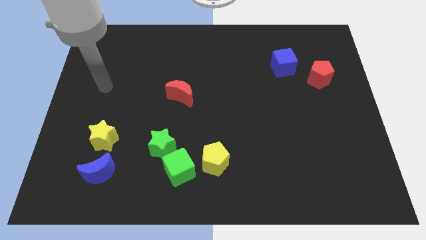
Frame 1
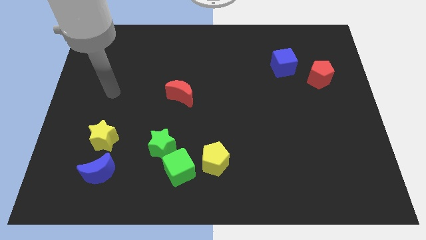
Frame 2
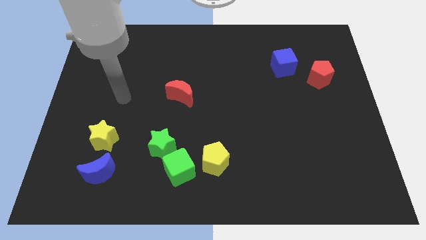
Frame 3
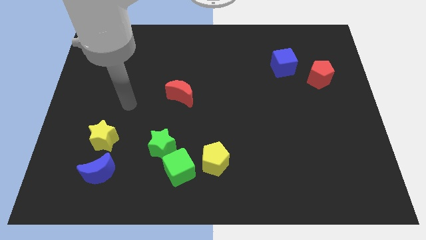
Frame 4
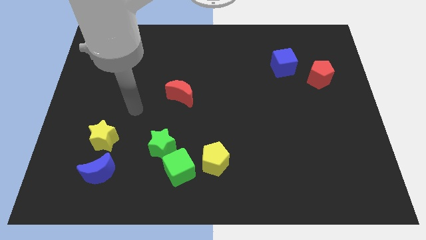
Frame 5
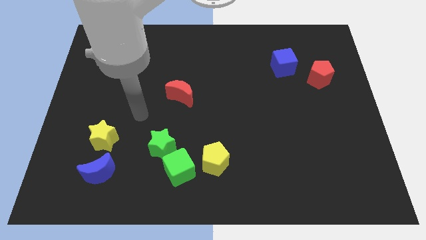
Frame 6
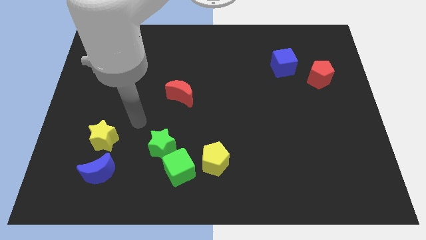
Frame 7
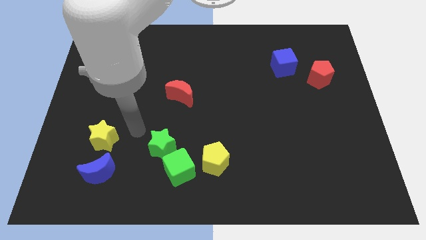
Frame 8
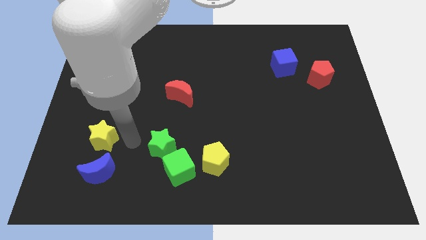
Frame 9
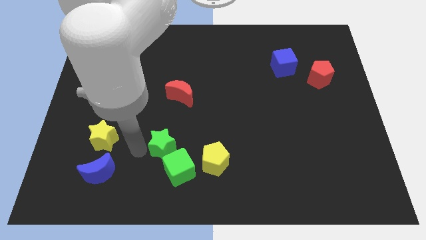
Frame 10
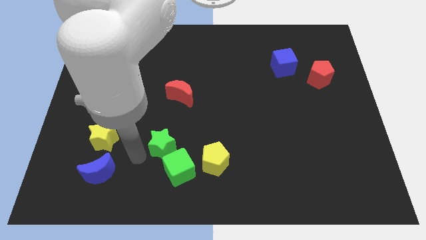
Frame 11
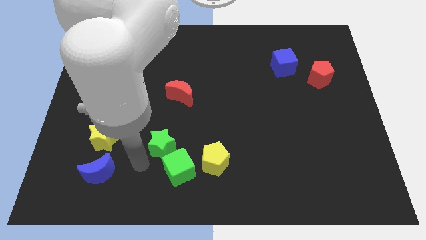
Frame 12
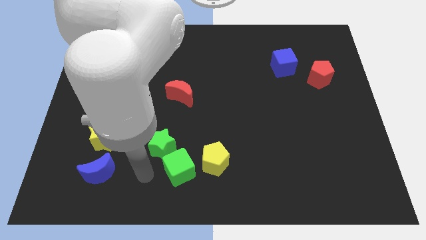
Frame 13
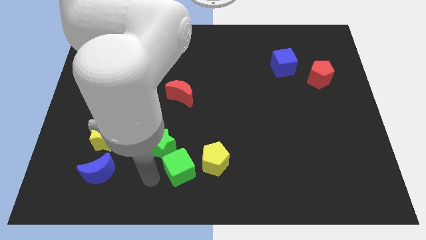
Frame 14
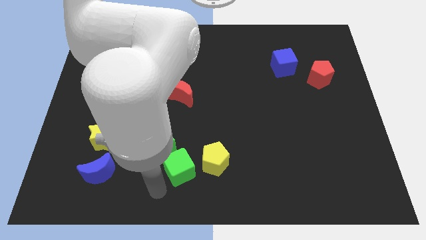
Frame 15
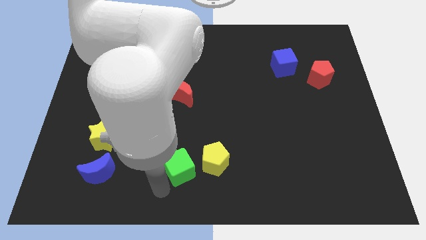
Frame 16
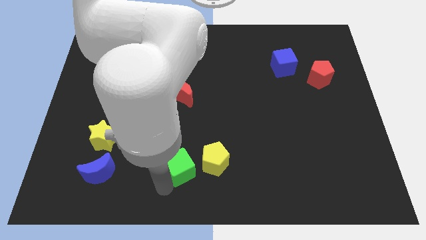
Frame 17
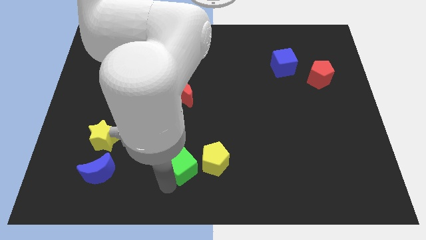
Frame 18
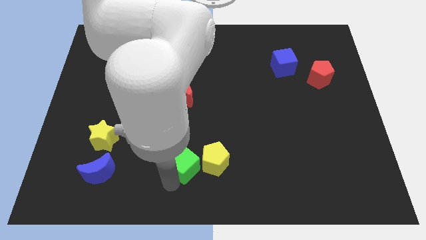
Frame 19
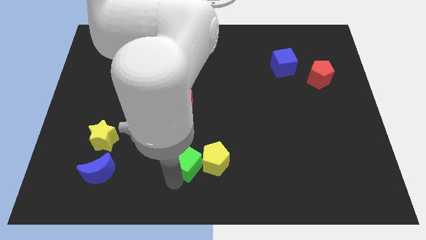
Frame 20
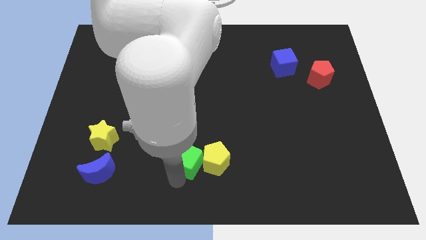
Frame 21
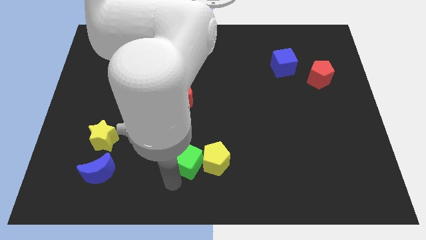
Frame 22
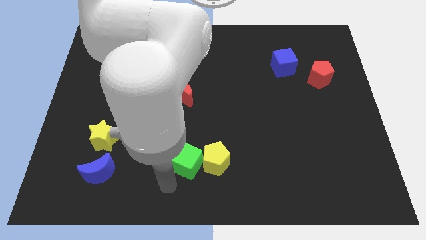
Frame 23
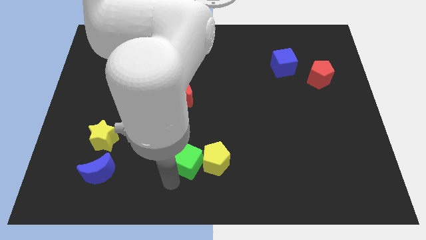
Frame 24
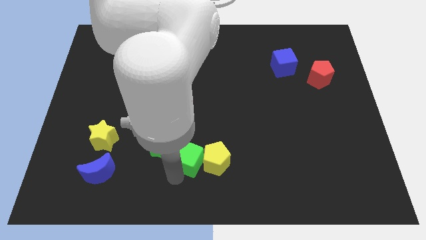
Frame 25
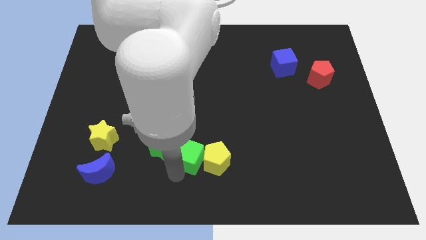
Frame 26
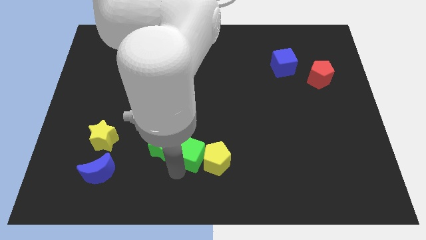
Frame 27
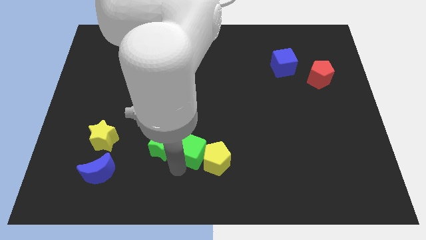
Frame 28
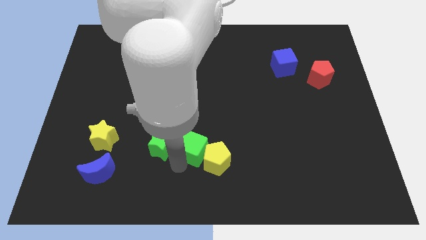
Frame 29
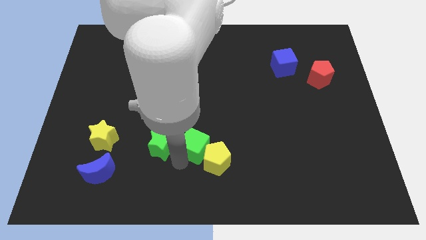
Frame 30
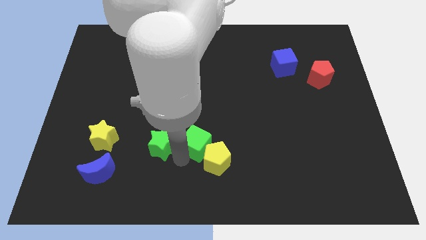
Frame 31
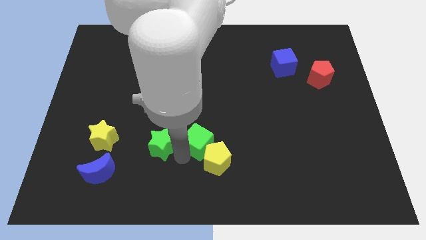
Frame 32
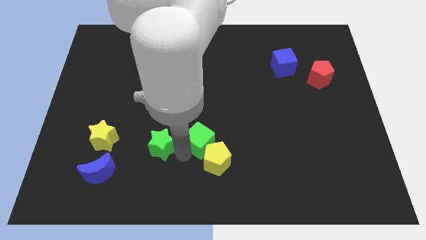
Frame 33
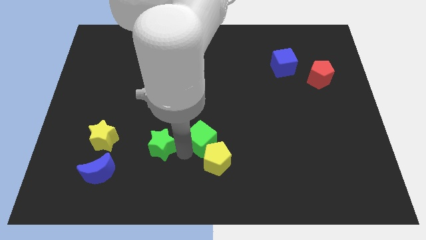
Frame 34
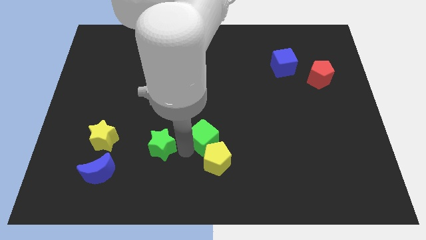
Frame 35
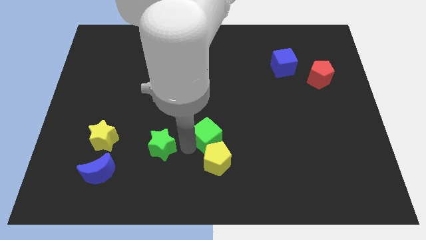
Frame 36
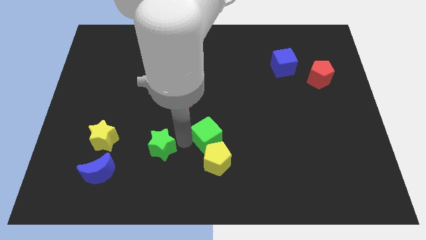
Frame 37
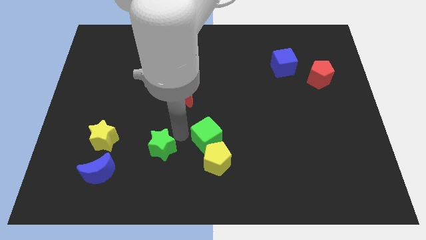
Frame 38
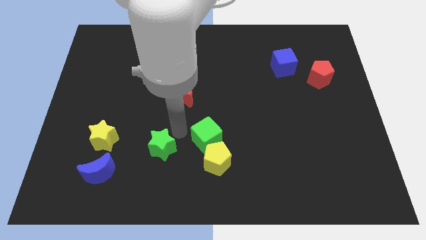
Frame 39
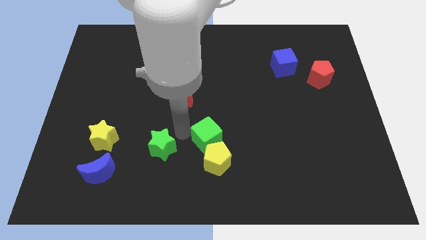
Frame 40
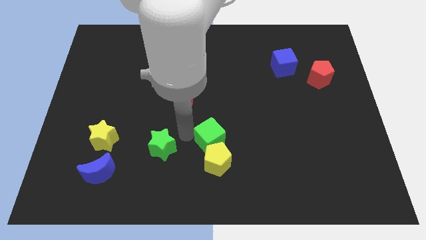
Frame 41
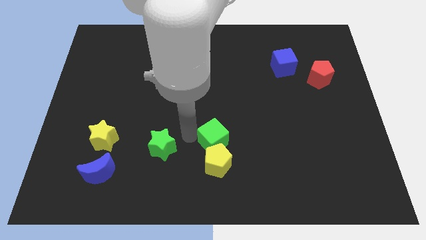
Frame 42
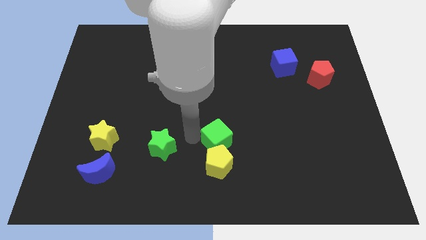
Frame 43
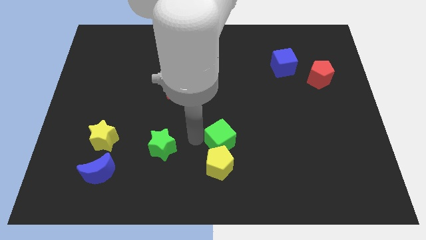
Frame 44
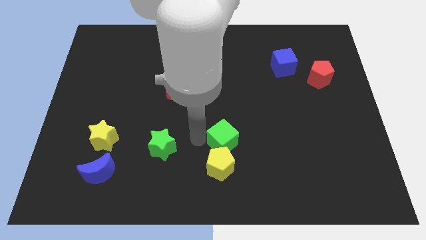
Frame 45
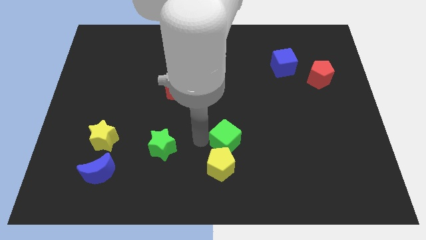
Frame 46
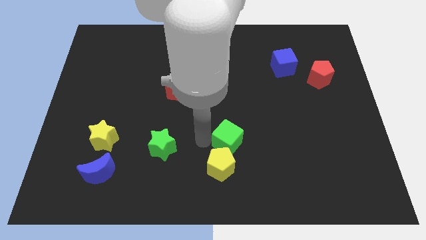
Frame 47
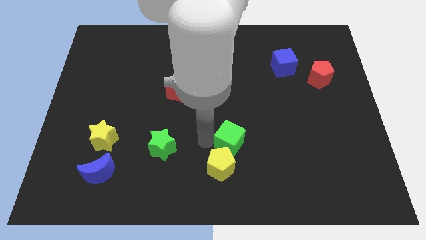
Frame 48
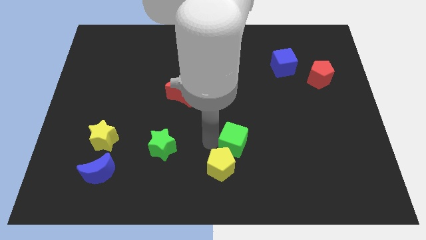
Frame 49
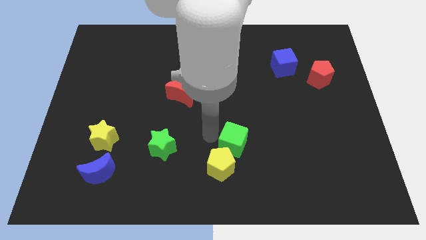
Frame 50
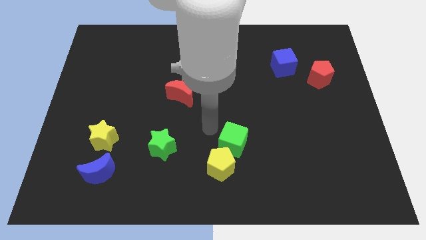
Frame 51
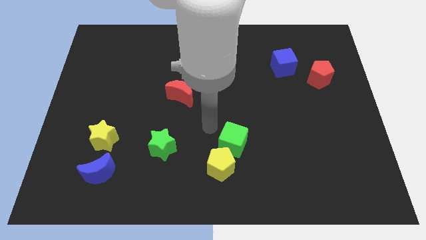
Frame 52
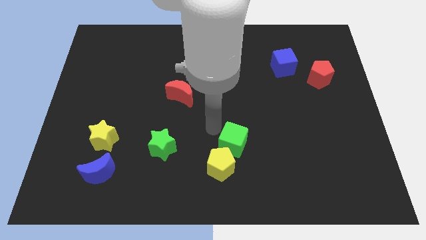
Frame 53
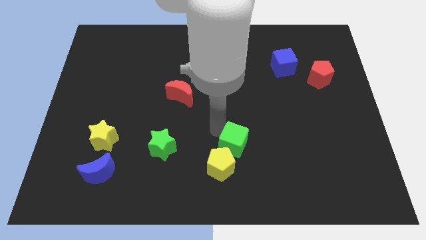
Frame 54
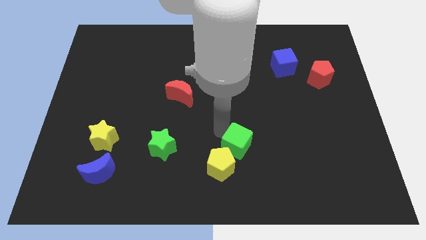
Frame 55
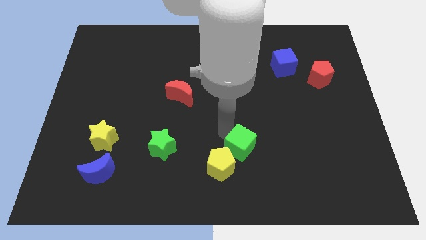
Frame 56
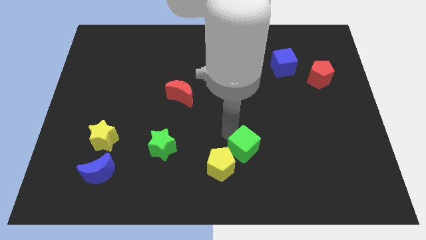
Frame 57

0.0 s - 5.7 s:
push the green cube just right of the yellow pentagon

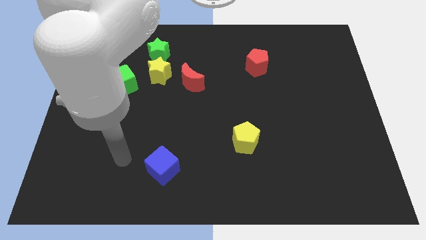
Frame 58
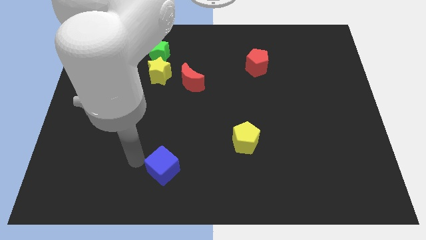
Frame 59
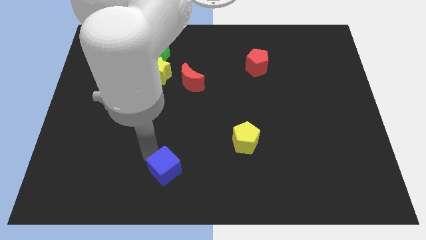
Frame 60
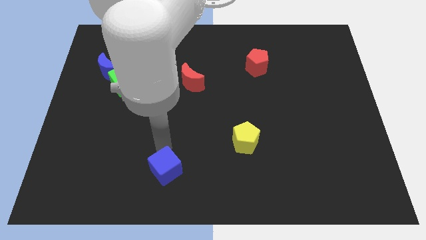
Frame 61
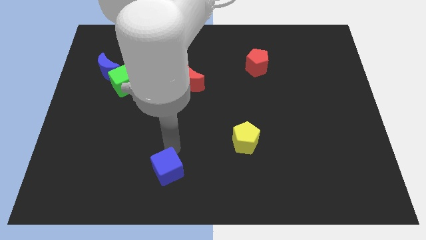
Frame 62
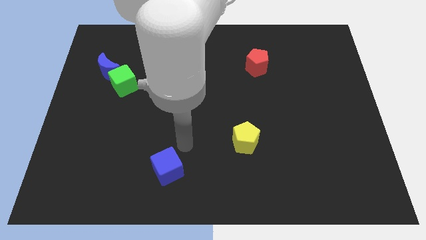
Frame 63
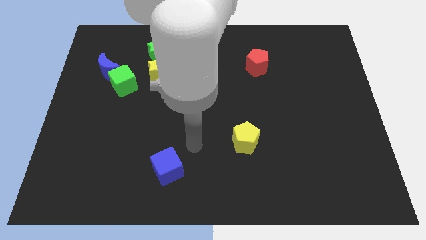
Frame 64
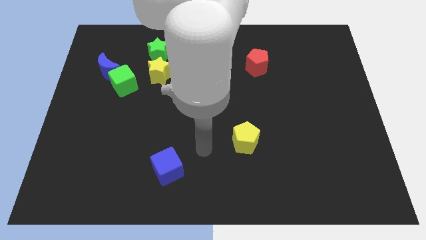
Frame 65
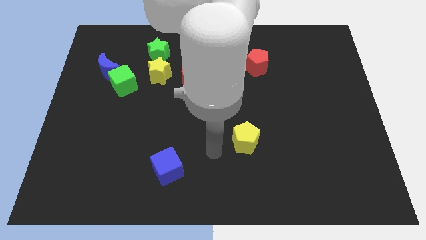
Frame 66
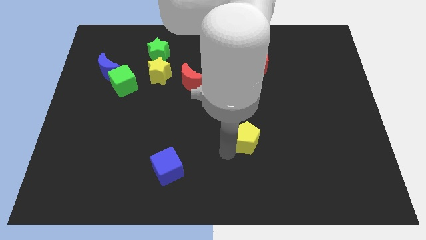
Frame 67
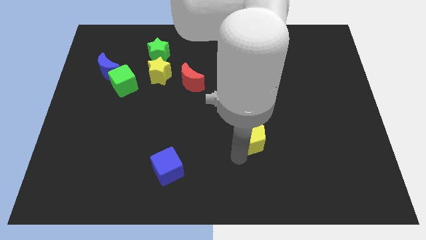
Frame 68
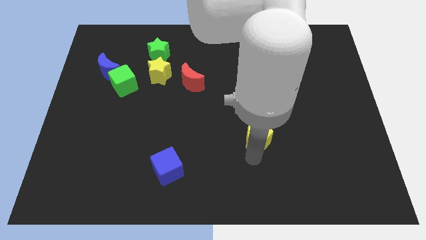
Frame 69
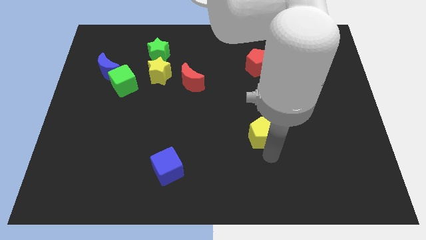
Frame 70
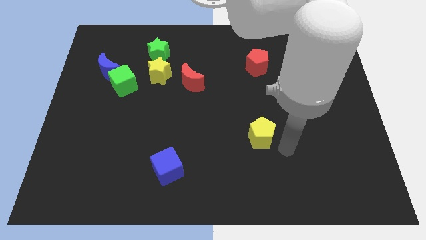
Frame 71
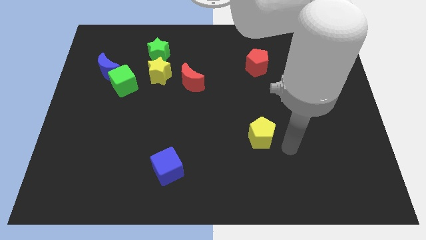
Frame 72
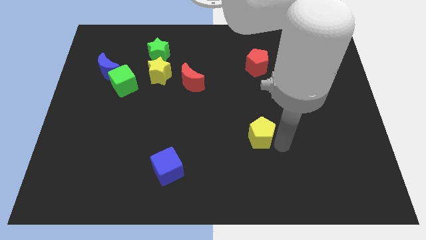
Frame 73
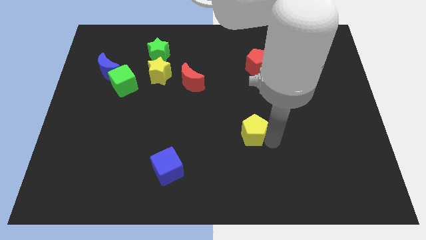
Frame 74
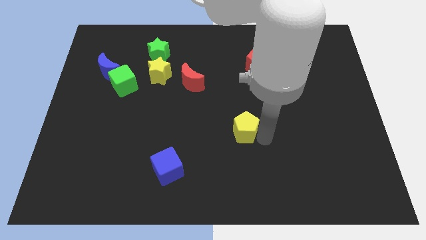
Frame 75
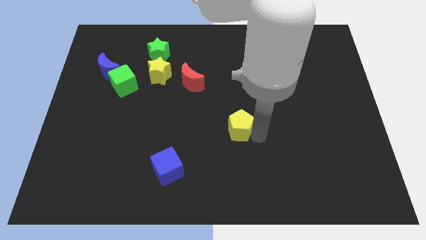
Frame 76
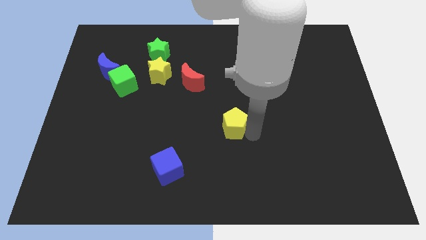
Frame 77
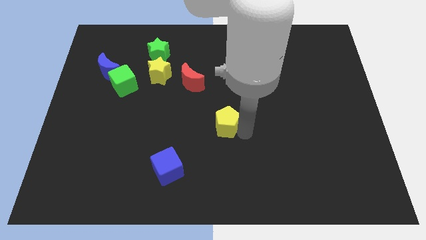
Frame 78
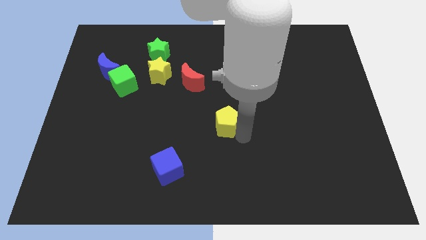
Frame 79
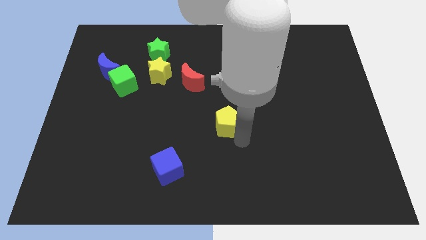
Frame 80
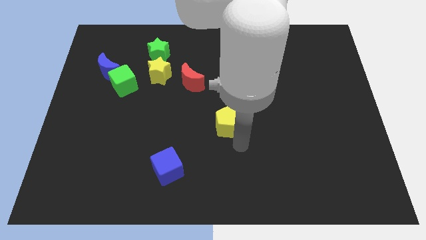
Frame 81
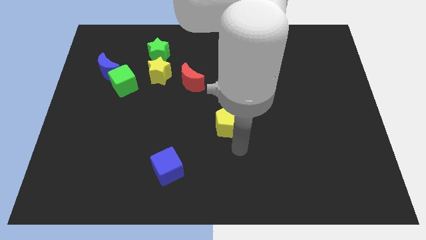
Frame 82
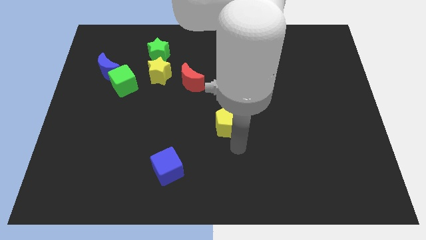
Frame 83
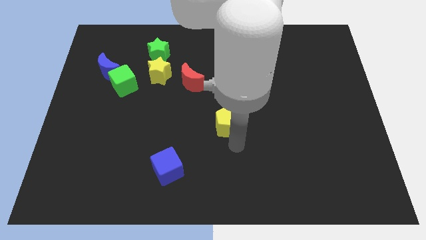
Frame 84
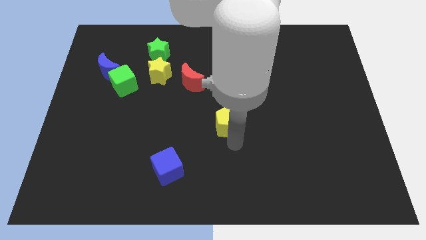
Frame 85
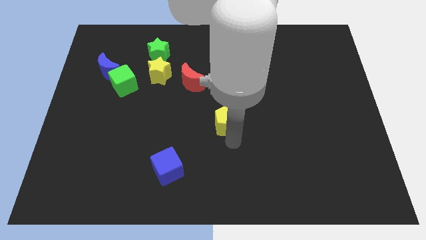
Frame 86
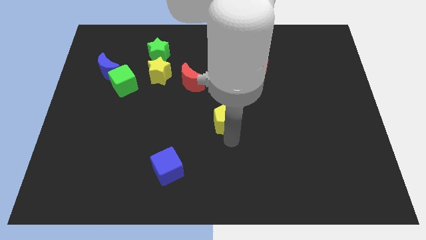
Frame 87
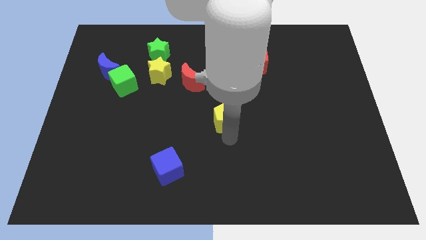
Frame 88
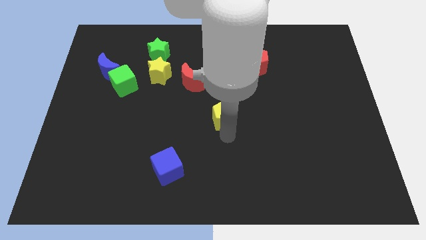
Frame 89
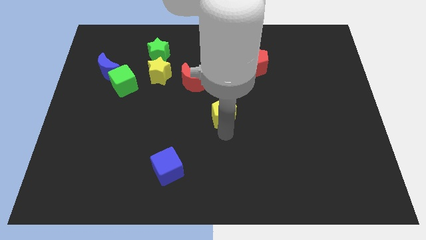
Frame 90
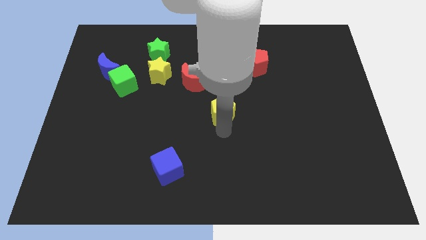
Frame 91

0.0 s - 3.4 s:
put the yellow pentagon to the bottom right of the red moon
